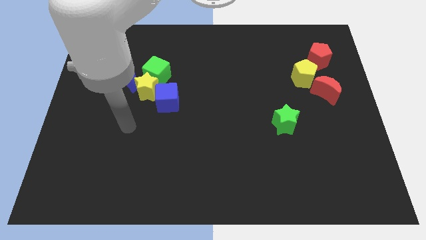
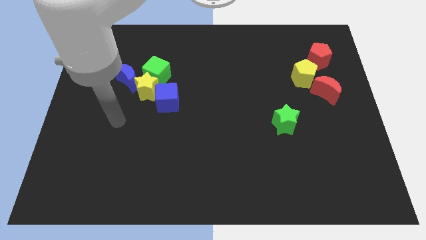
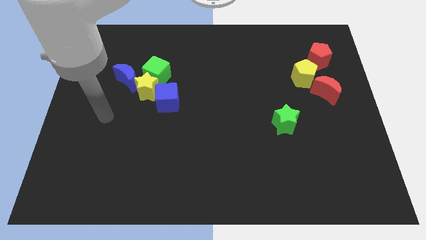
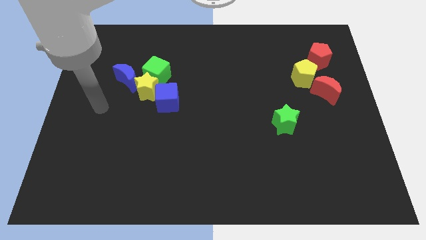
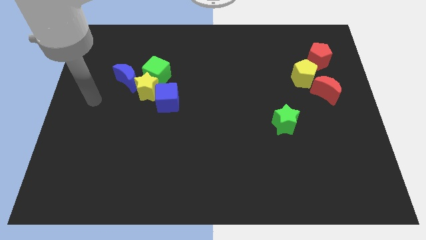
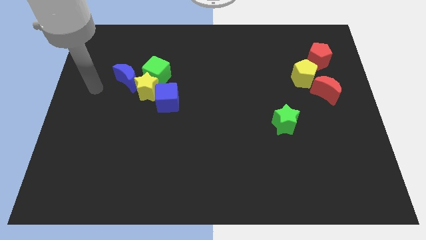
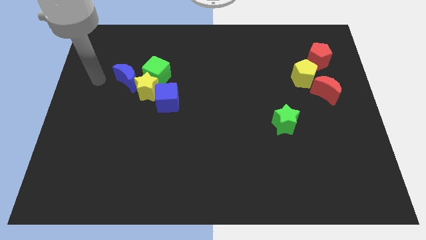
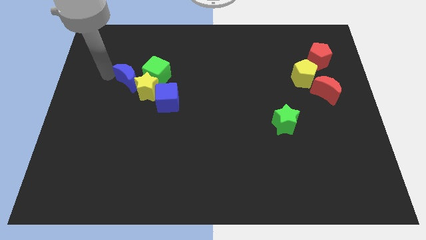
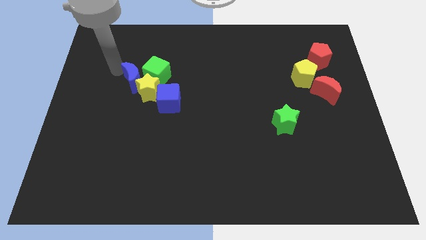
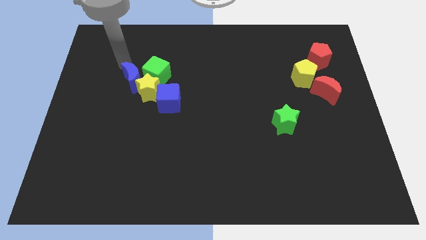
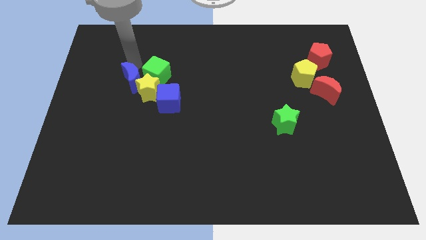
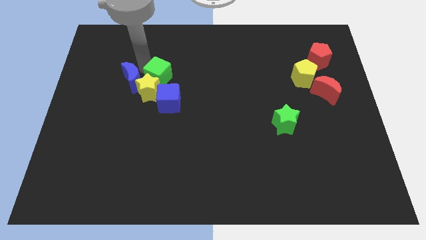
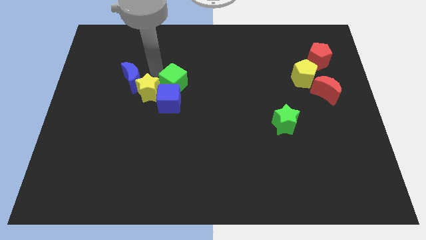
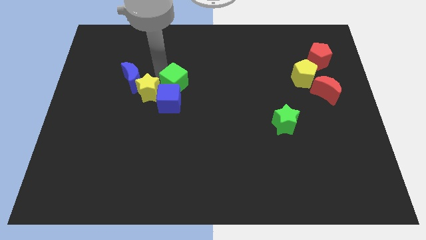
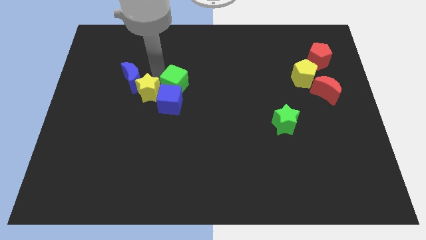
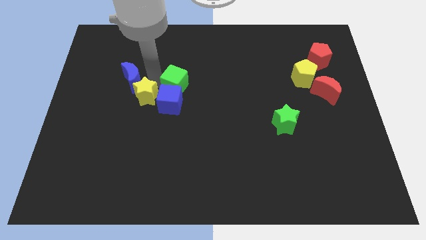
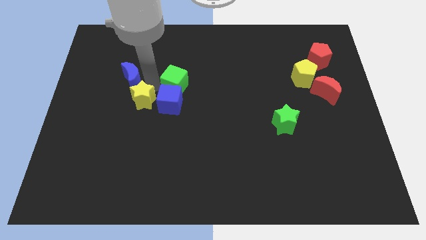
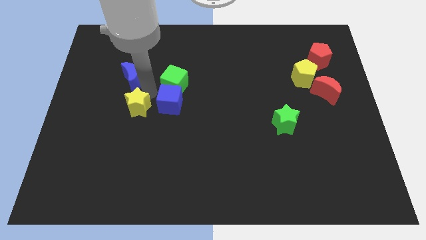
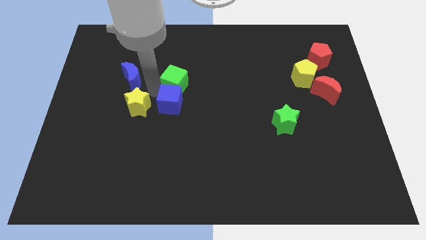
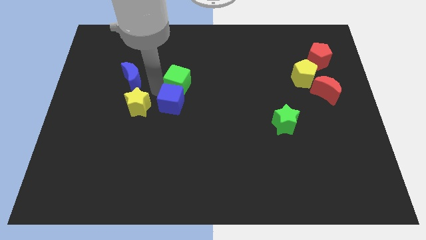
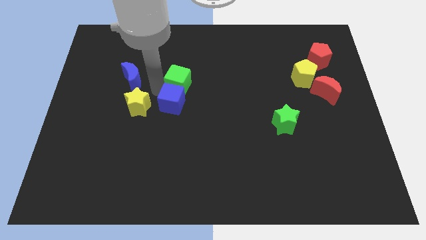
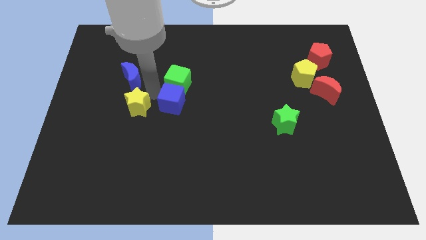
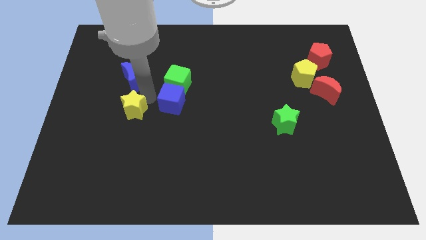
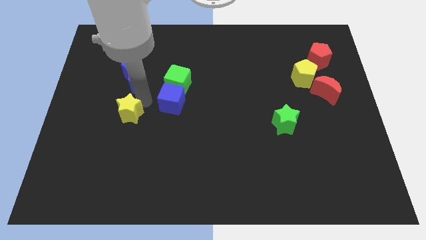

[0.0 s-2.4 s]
move the yellow star away from the group

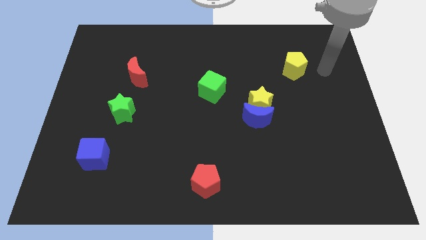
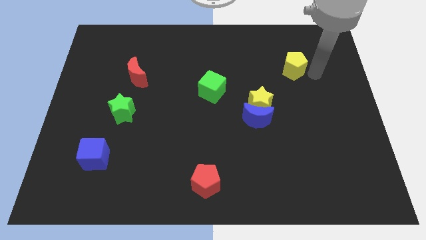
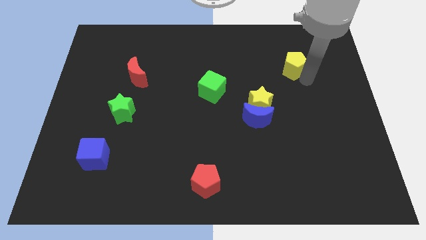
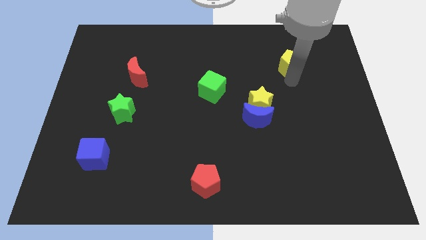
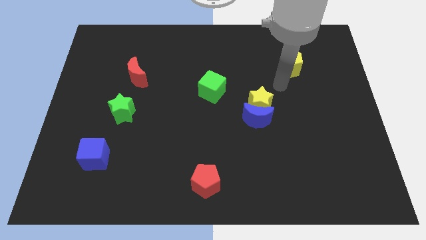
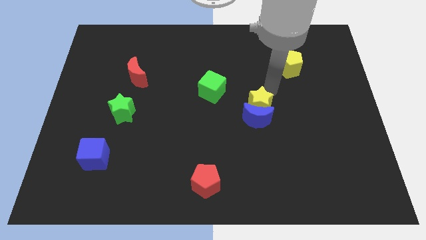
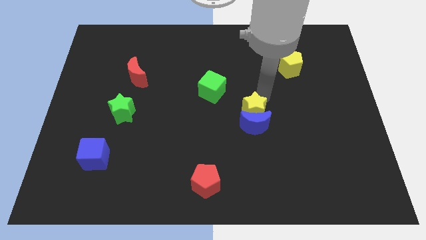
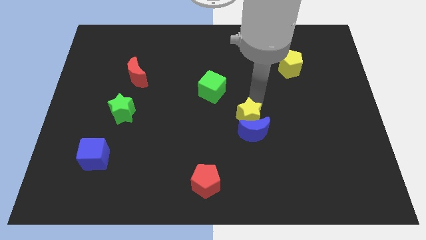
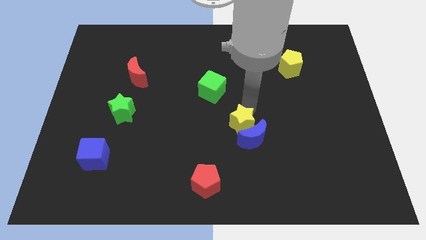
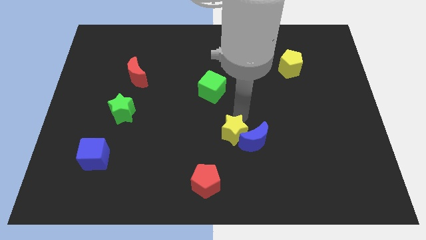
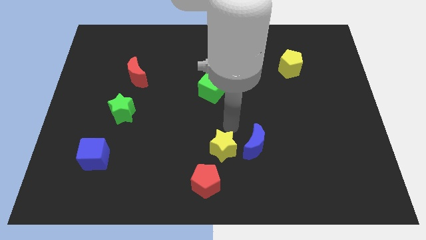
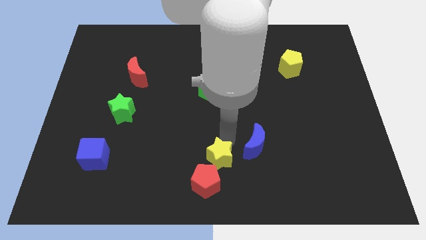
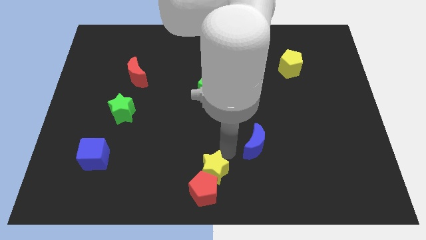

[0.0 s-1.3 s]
separate the blue moon from the yellow star

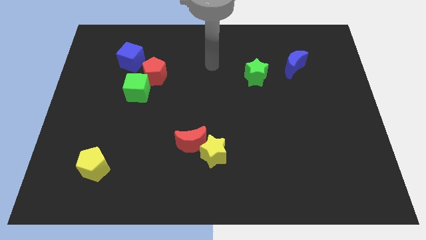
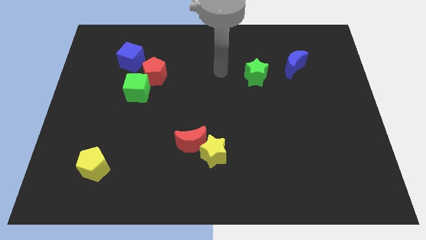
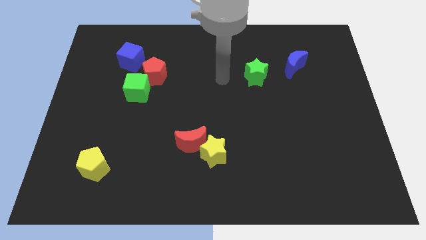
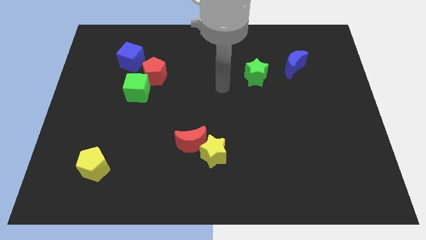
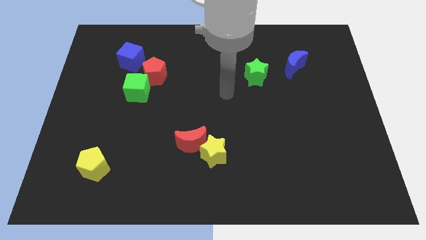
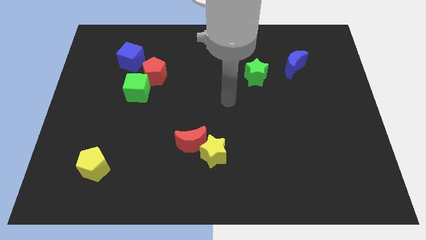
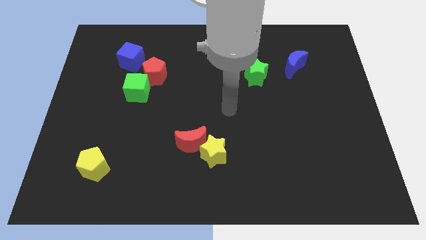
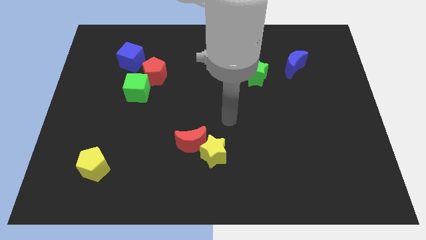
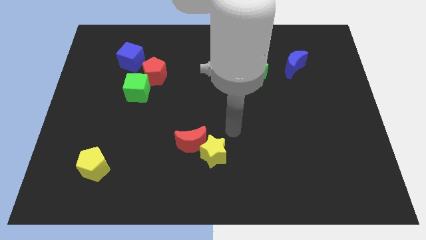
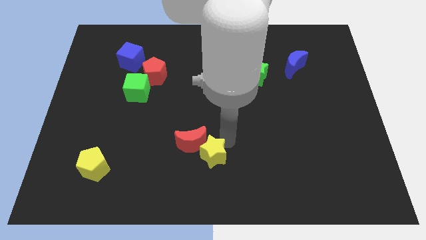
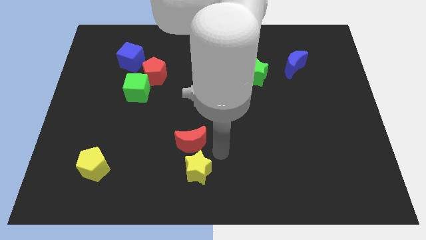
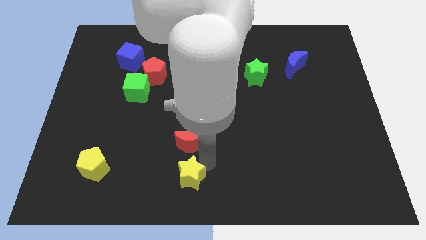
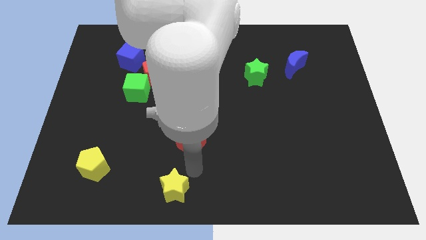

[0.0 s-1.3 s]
separate the red moon from the yellow star

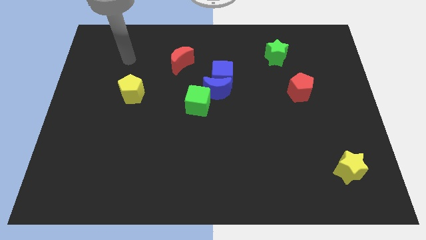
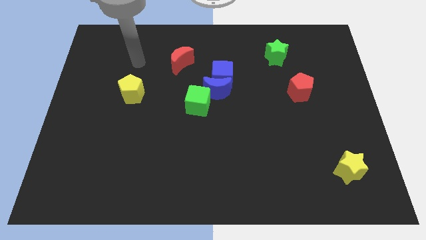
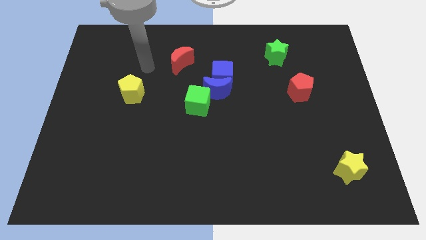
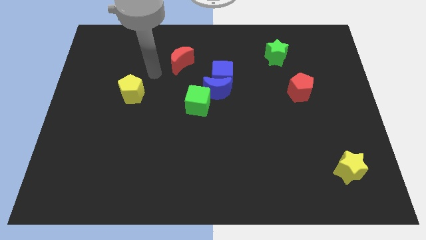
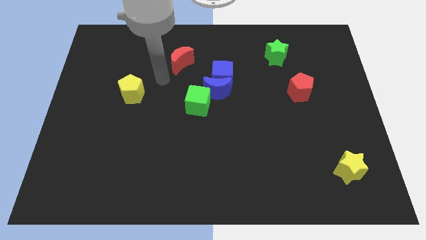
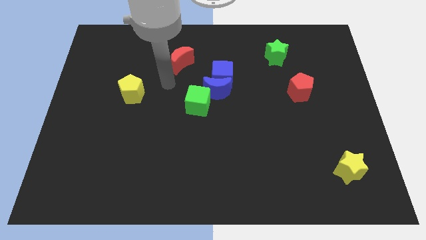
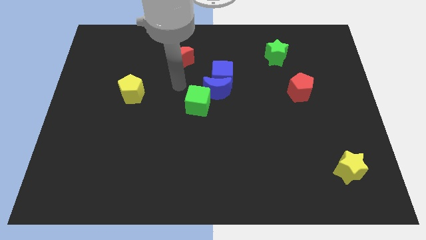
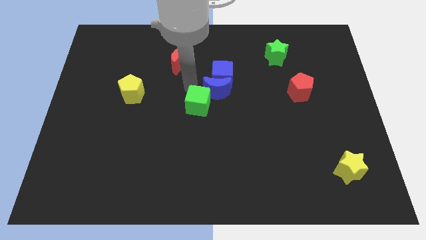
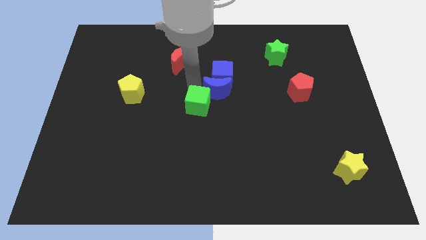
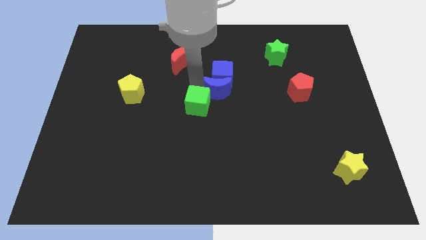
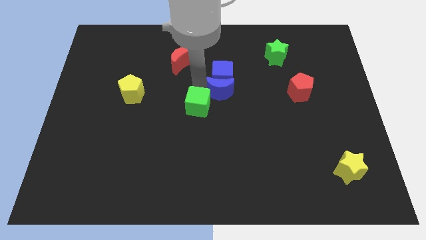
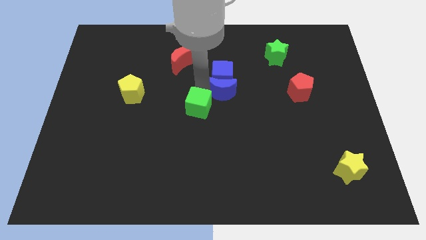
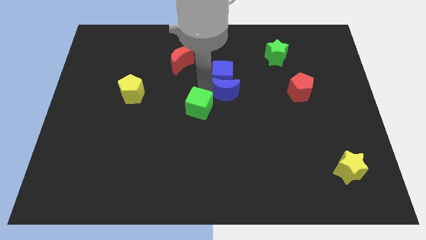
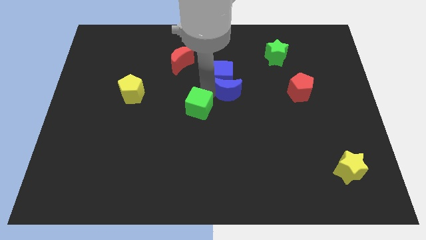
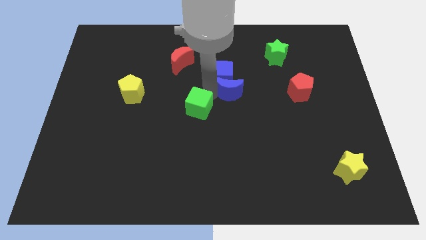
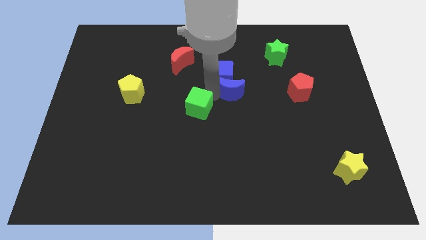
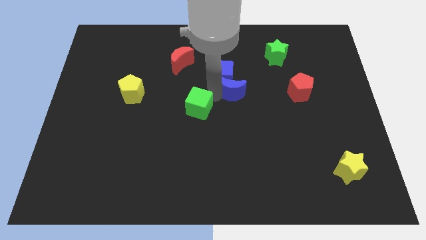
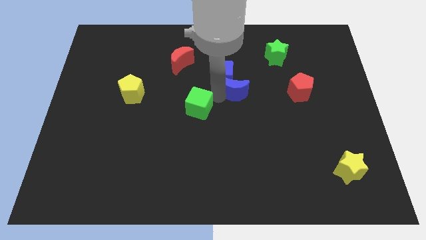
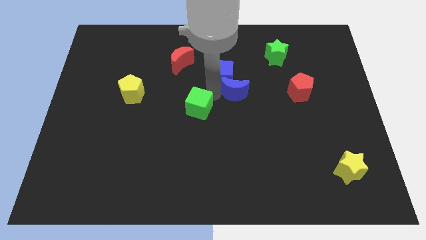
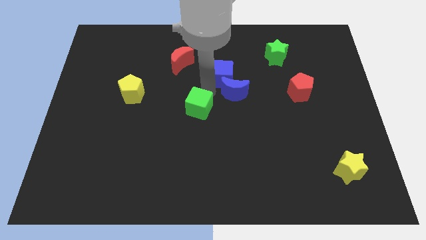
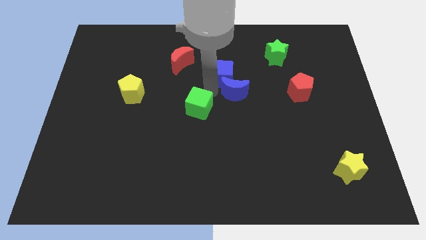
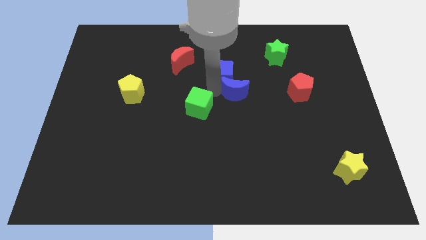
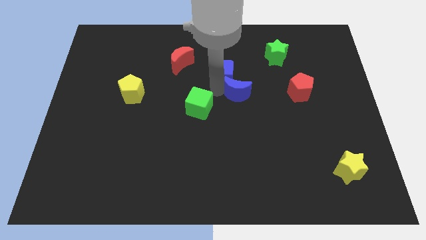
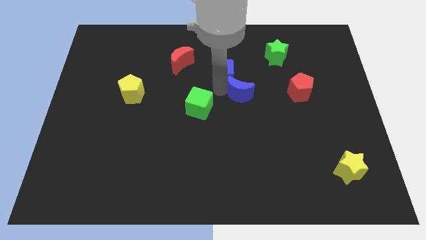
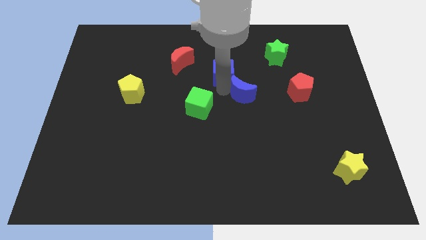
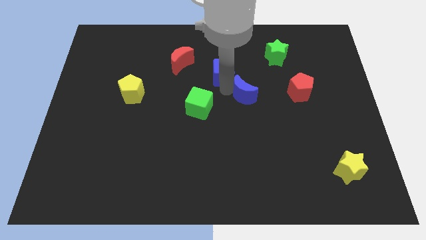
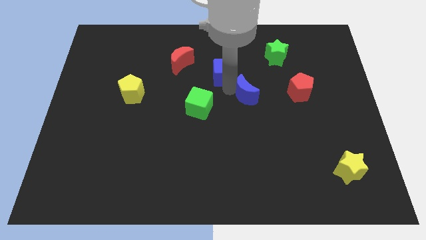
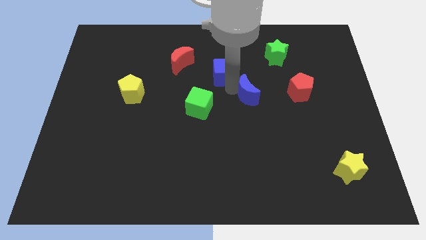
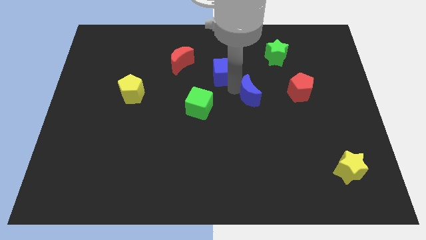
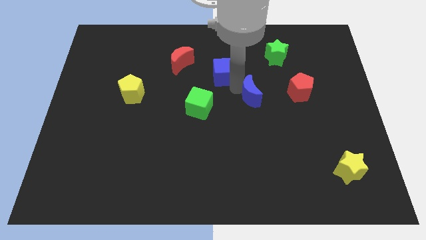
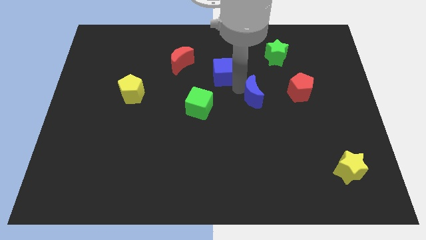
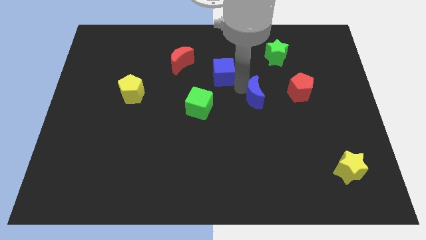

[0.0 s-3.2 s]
move the blue moon away from the blue cube and green cube

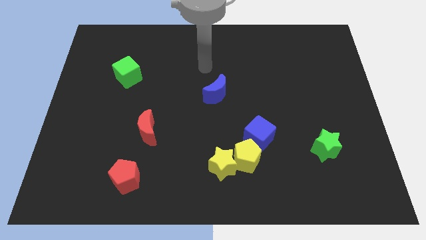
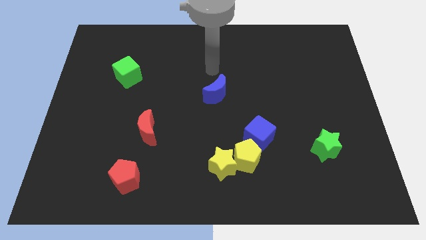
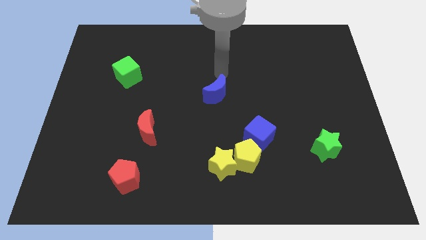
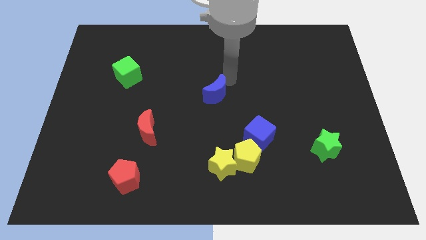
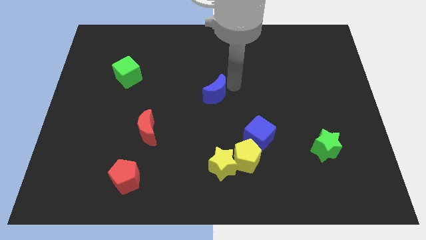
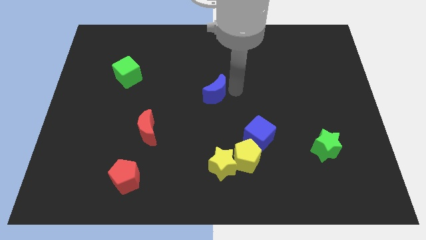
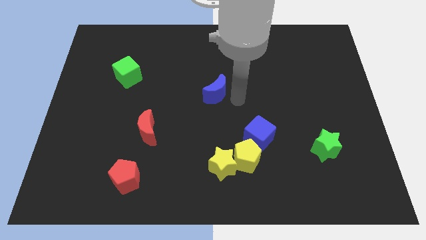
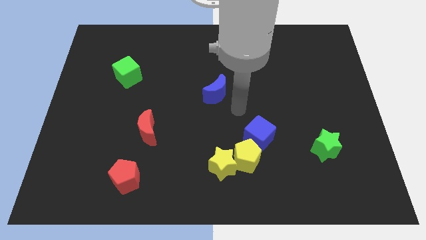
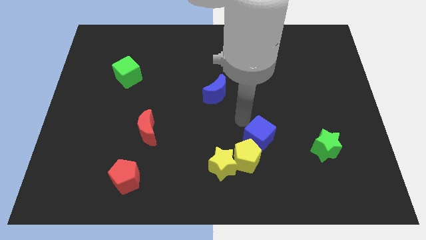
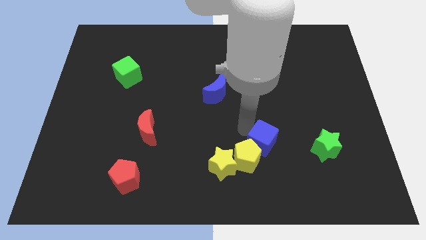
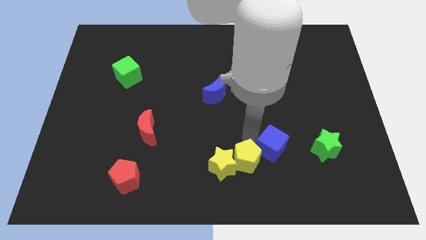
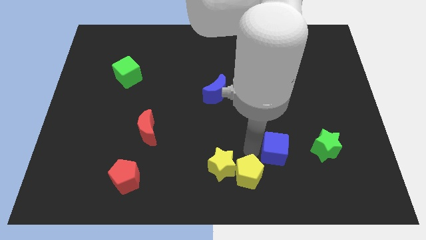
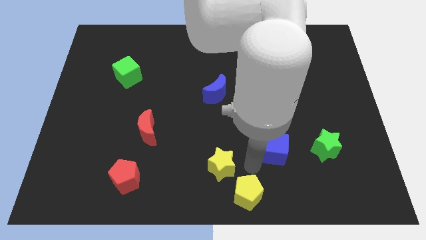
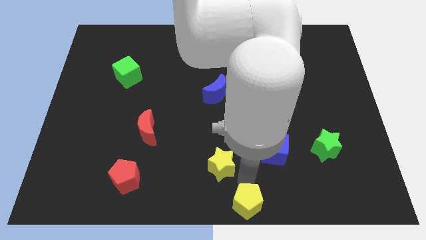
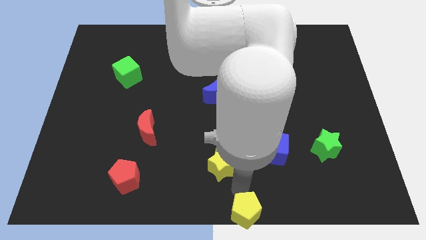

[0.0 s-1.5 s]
move the yellow star away from the yellow pentagon
